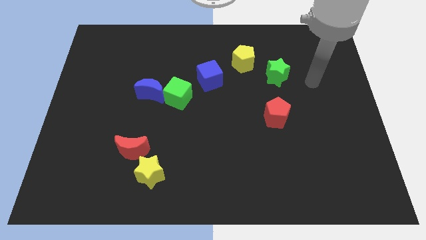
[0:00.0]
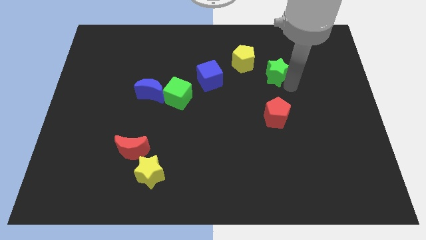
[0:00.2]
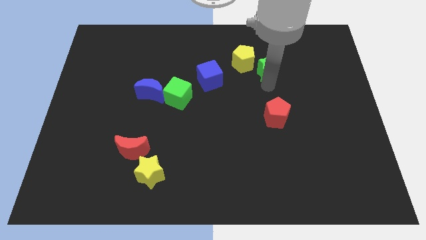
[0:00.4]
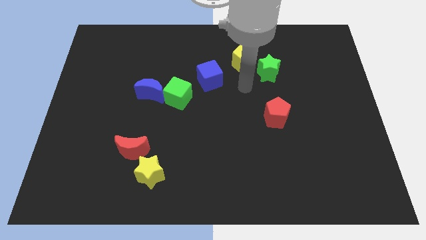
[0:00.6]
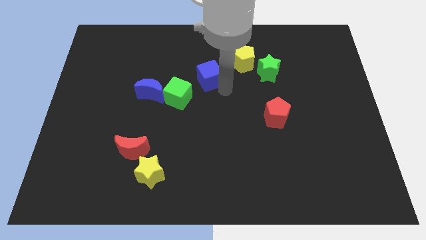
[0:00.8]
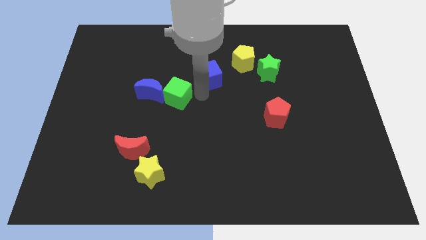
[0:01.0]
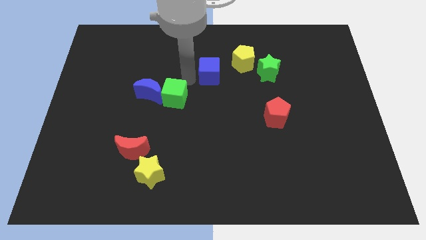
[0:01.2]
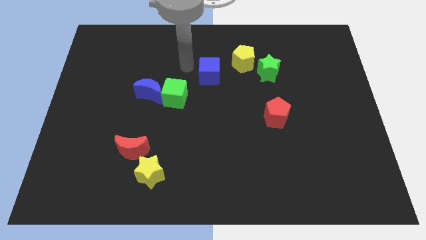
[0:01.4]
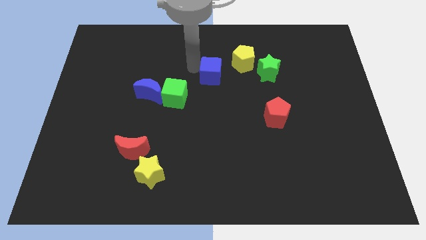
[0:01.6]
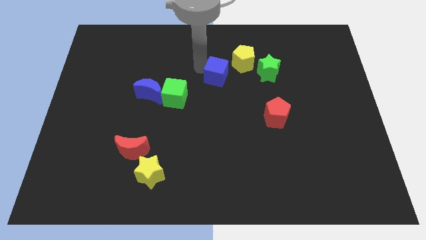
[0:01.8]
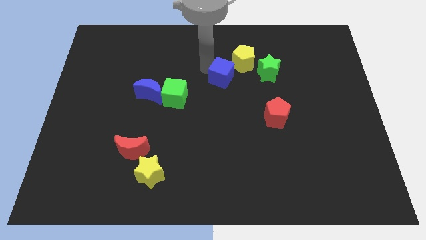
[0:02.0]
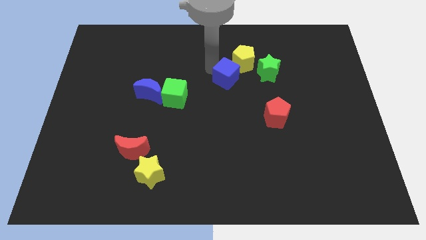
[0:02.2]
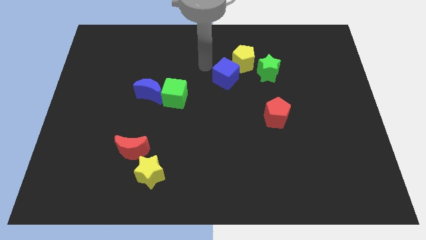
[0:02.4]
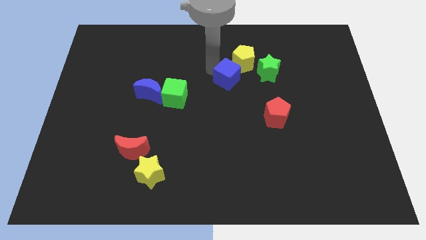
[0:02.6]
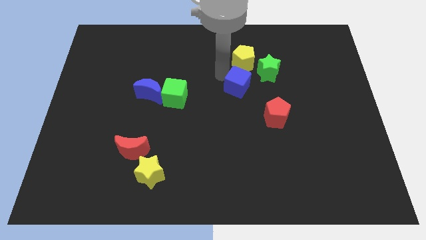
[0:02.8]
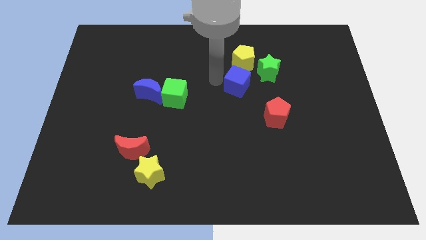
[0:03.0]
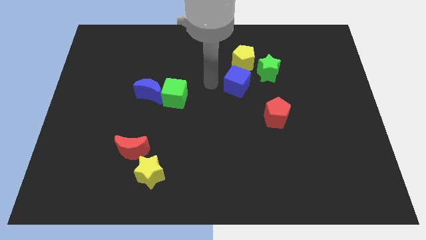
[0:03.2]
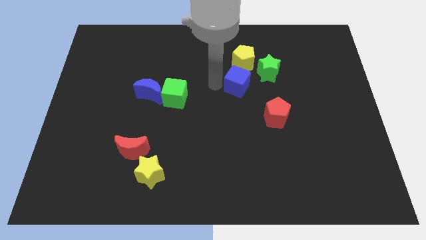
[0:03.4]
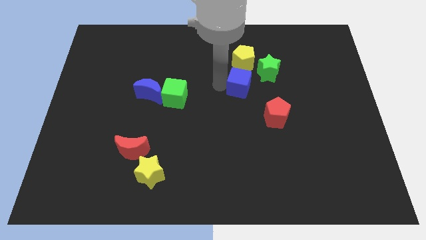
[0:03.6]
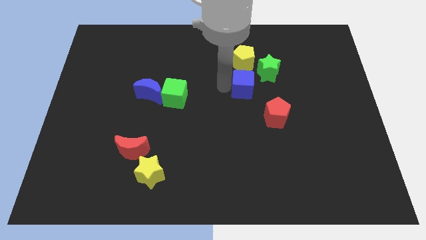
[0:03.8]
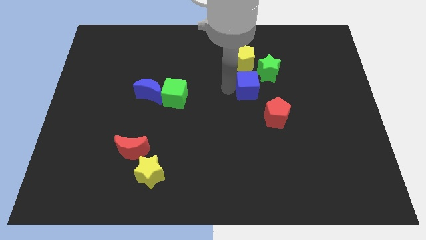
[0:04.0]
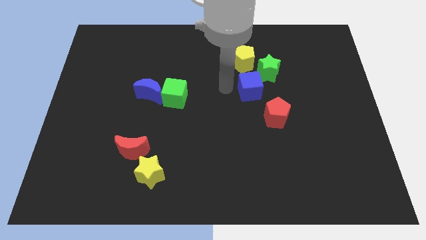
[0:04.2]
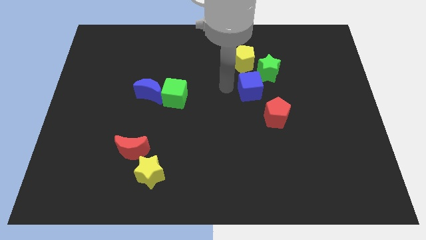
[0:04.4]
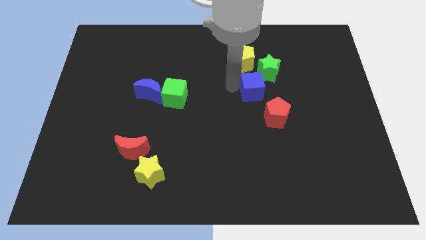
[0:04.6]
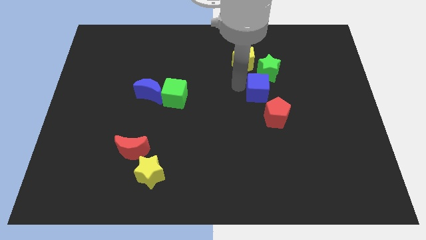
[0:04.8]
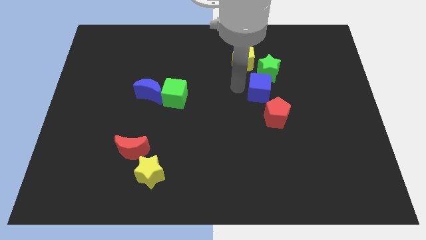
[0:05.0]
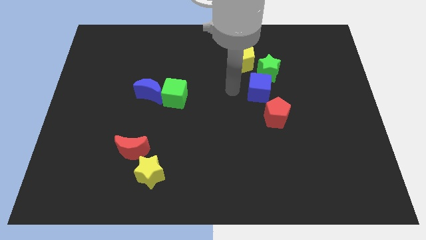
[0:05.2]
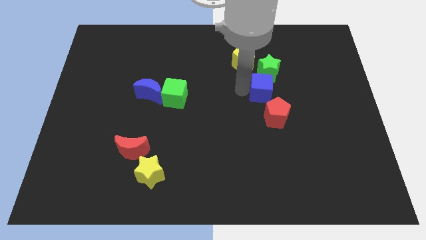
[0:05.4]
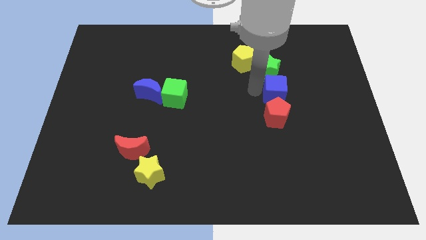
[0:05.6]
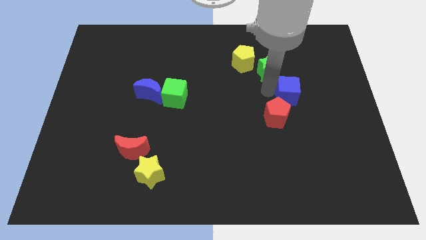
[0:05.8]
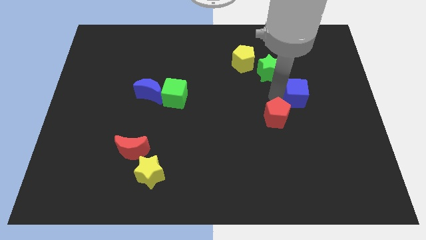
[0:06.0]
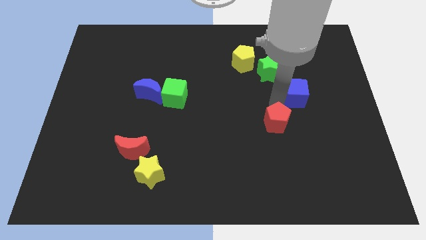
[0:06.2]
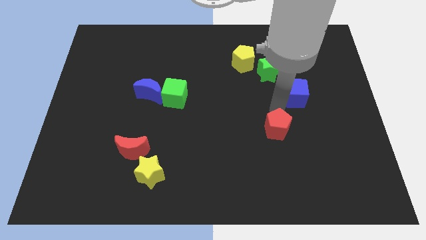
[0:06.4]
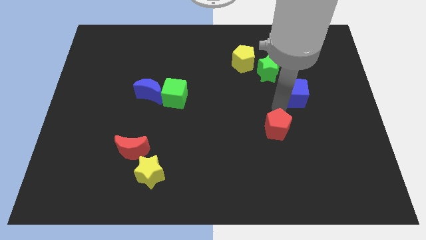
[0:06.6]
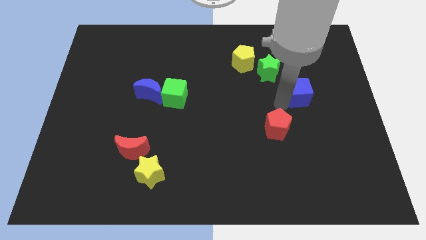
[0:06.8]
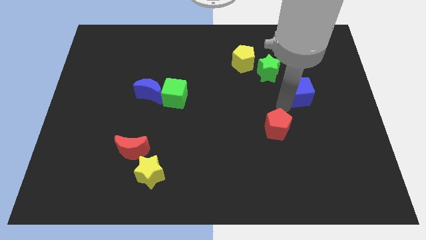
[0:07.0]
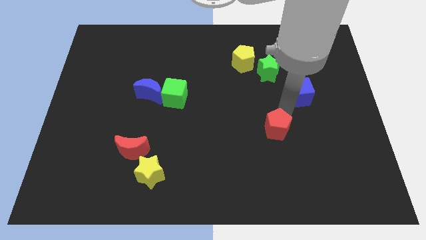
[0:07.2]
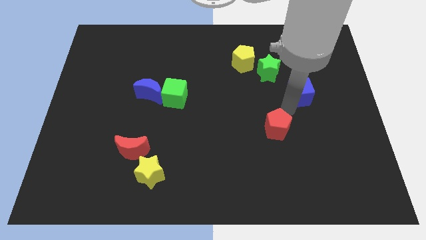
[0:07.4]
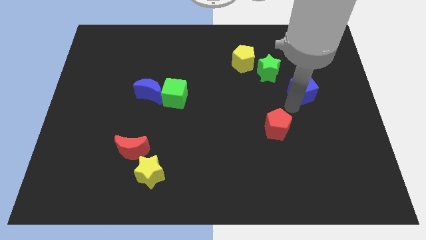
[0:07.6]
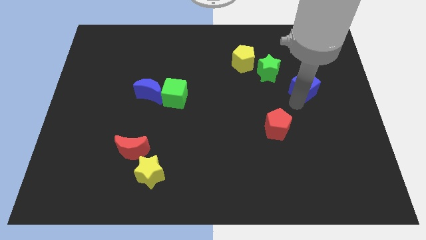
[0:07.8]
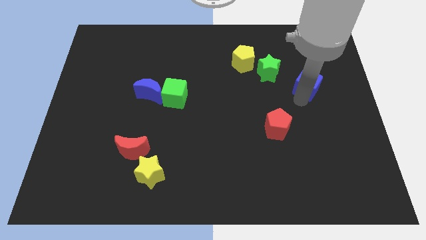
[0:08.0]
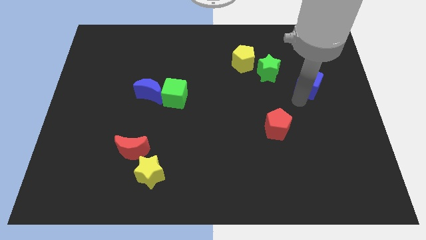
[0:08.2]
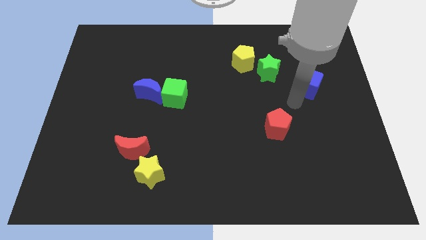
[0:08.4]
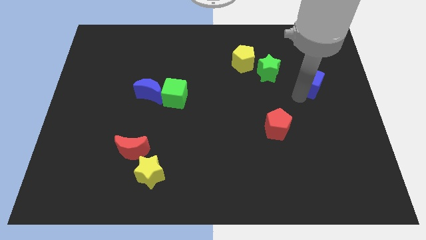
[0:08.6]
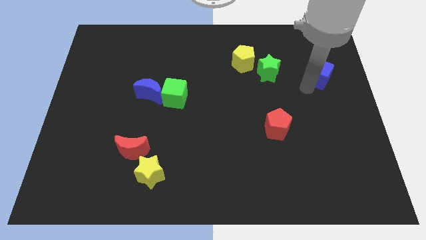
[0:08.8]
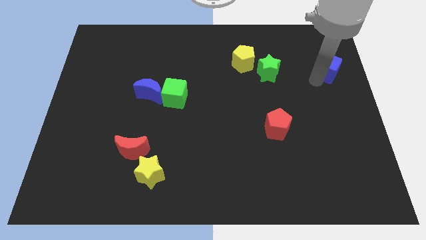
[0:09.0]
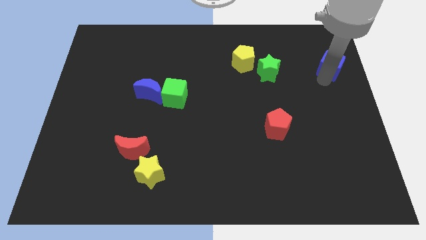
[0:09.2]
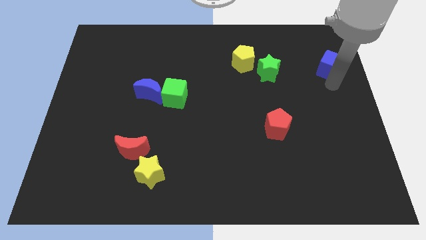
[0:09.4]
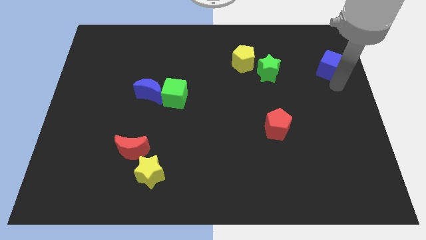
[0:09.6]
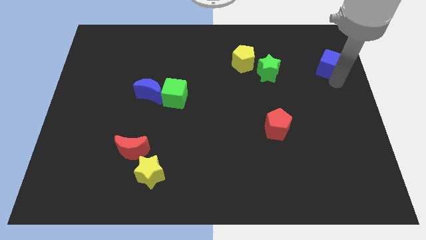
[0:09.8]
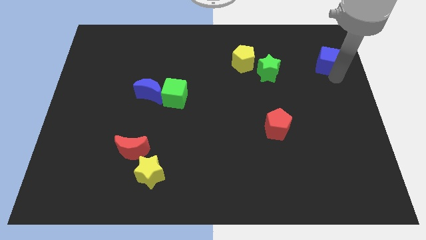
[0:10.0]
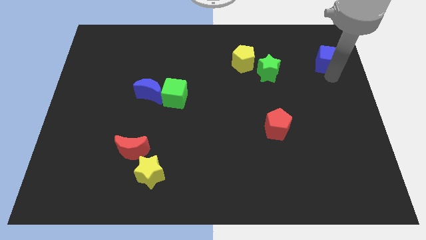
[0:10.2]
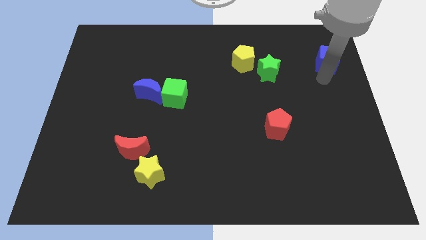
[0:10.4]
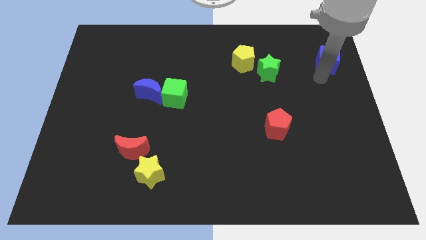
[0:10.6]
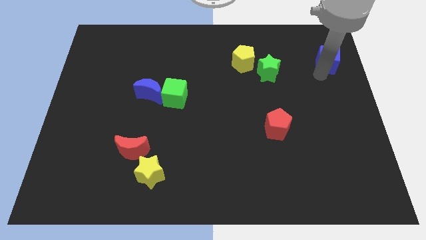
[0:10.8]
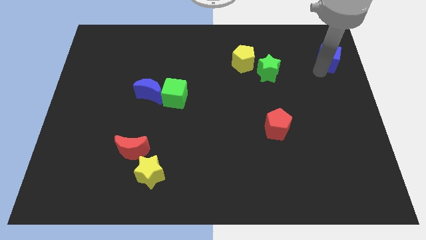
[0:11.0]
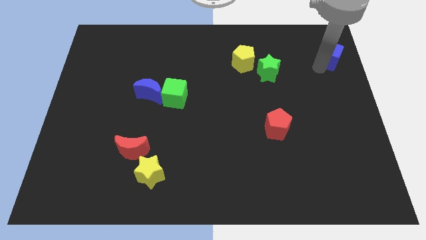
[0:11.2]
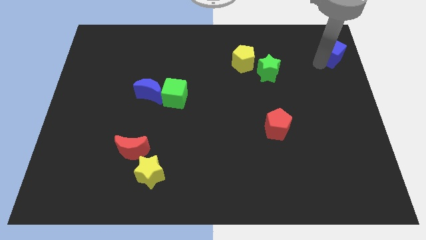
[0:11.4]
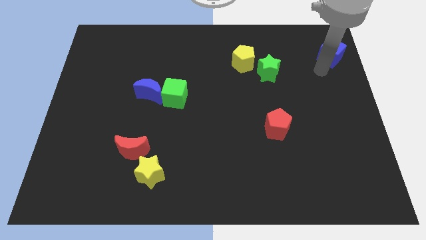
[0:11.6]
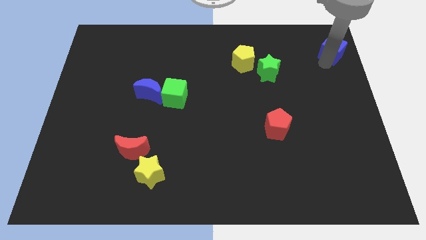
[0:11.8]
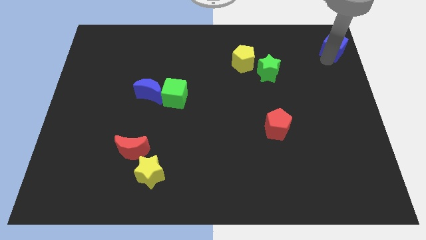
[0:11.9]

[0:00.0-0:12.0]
put the blue cube to the upper right corner

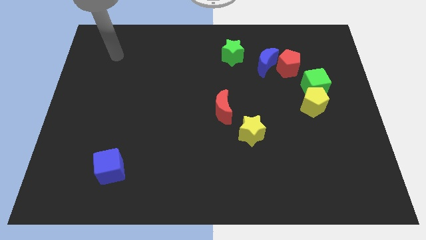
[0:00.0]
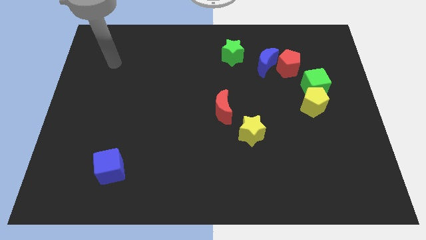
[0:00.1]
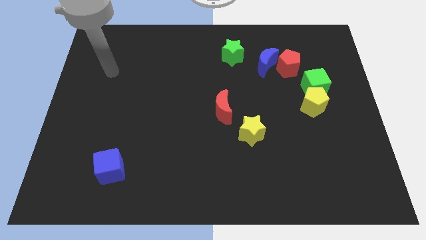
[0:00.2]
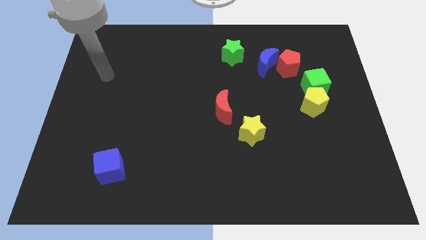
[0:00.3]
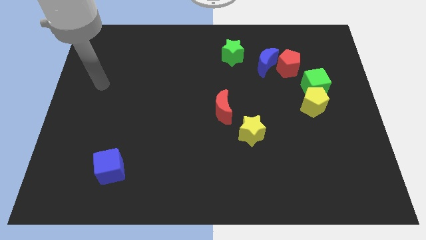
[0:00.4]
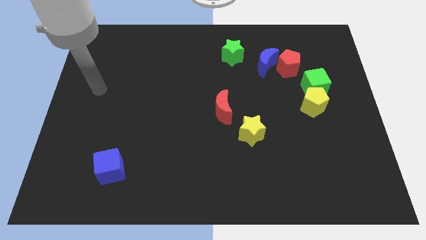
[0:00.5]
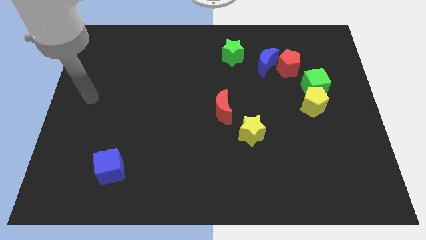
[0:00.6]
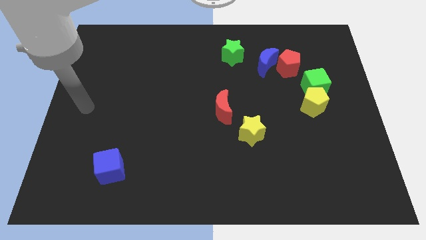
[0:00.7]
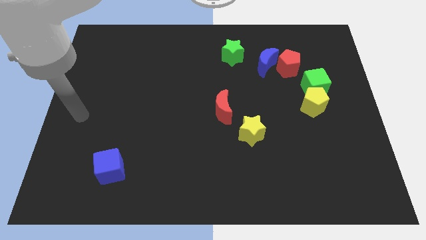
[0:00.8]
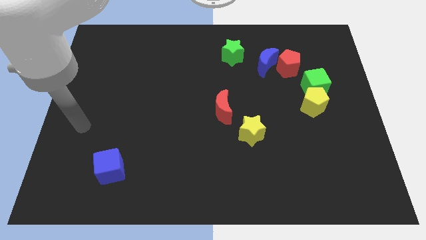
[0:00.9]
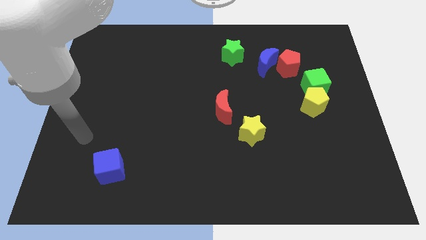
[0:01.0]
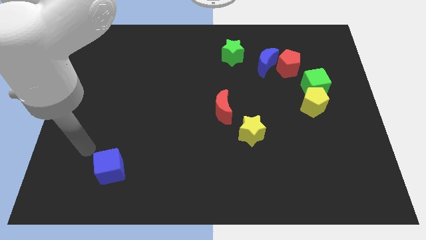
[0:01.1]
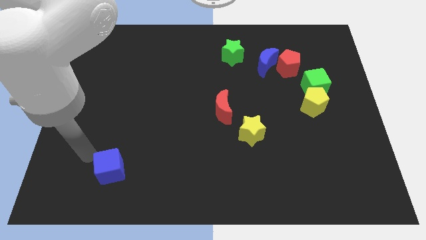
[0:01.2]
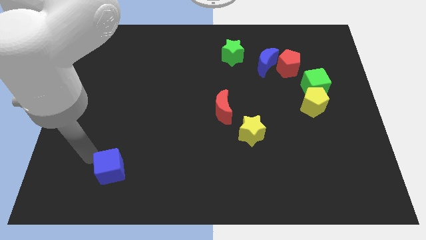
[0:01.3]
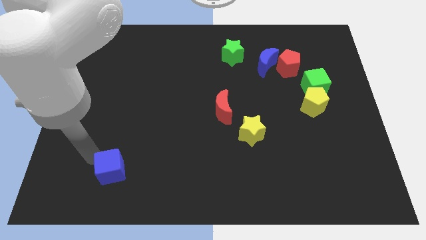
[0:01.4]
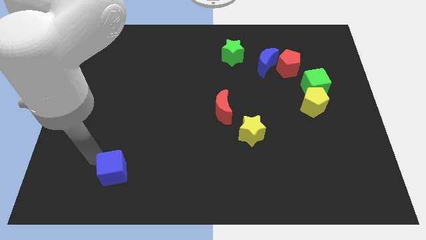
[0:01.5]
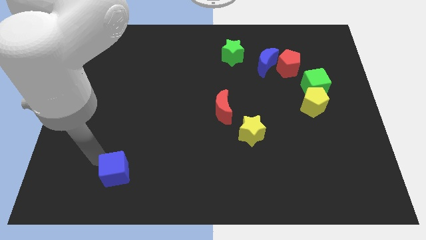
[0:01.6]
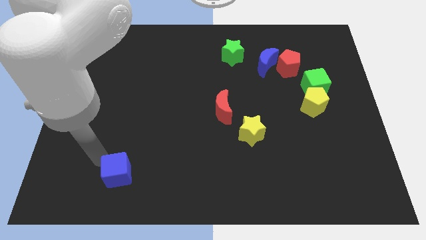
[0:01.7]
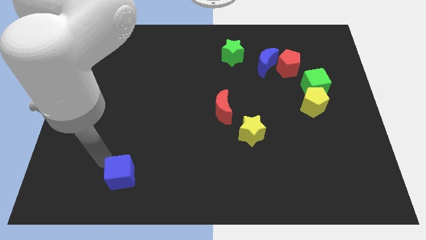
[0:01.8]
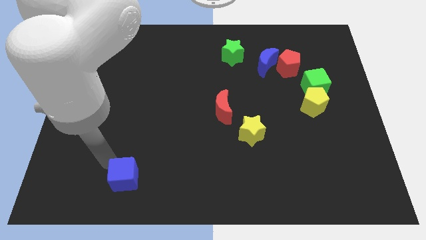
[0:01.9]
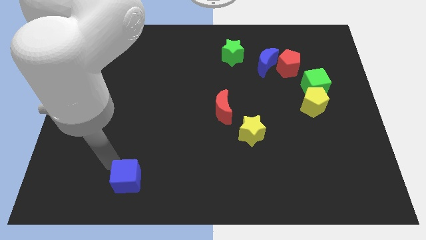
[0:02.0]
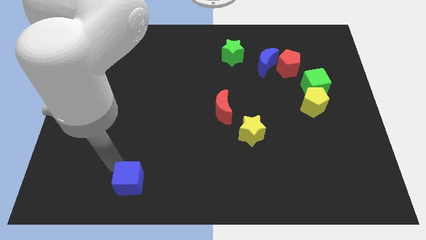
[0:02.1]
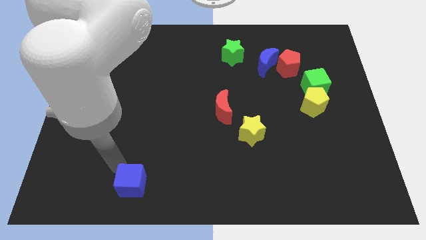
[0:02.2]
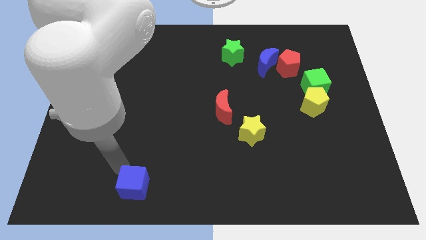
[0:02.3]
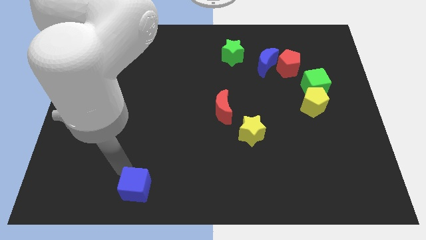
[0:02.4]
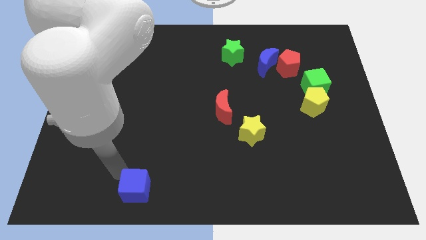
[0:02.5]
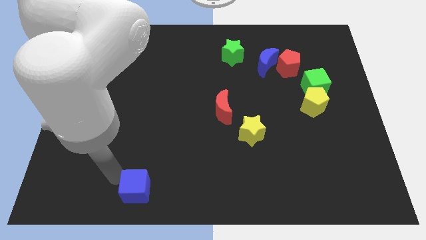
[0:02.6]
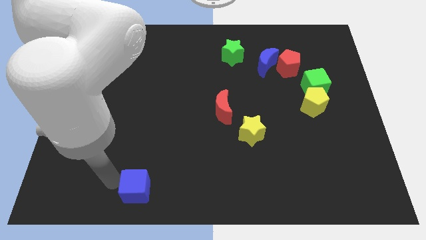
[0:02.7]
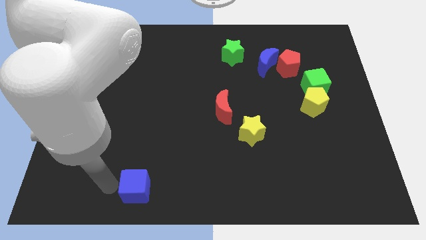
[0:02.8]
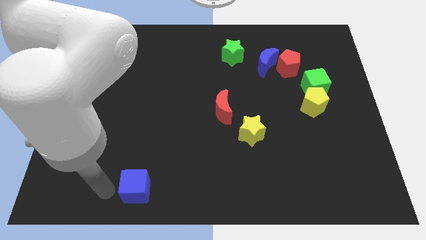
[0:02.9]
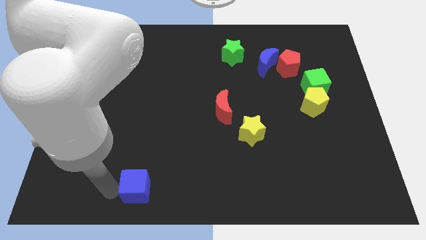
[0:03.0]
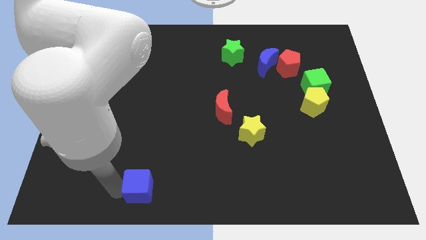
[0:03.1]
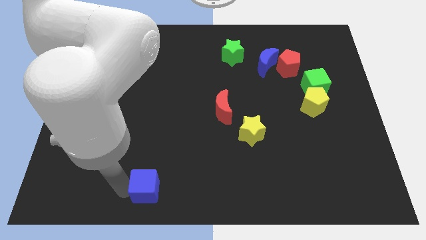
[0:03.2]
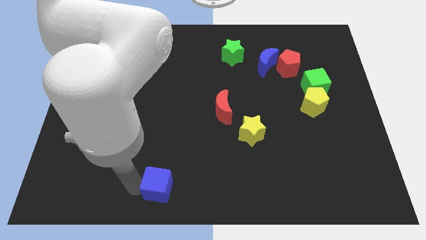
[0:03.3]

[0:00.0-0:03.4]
slide the blue cube to the bottom
